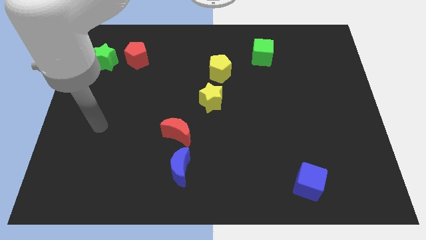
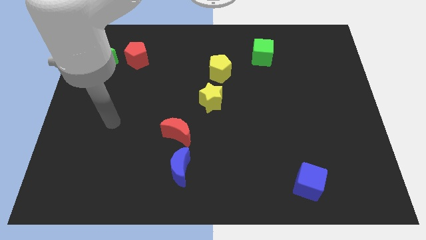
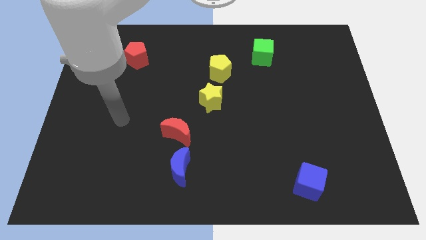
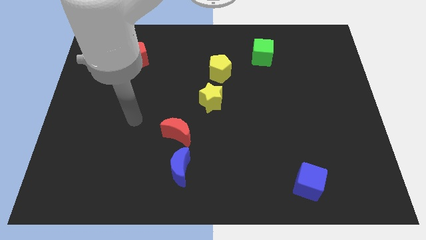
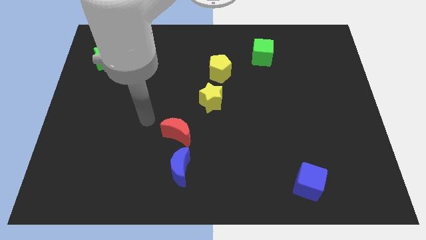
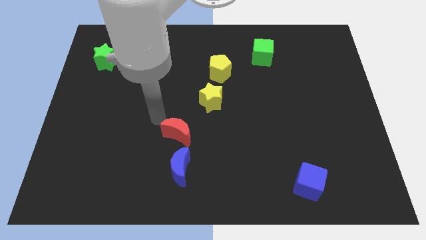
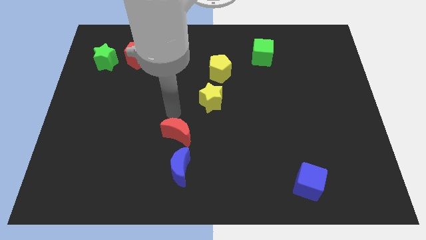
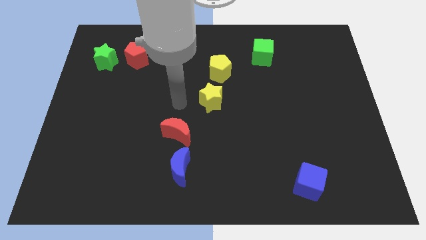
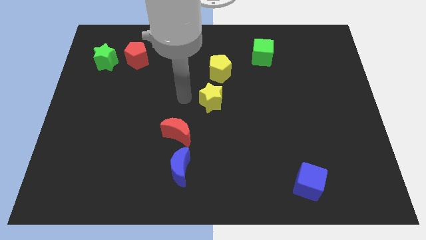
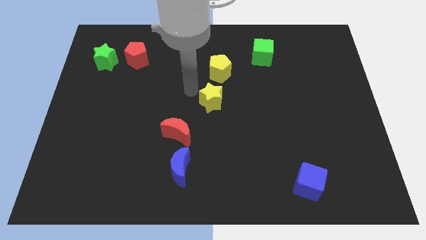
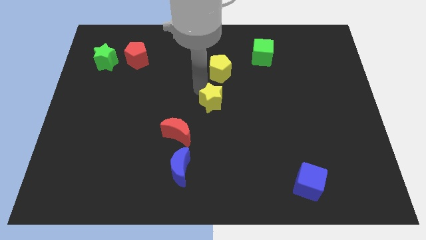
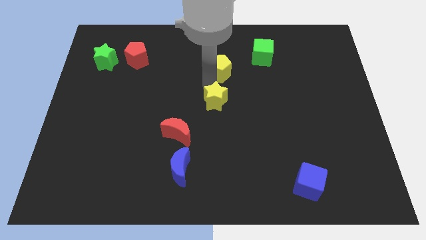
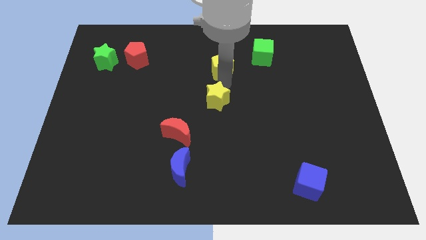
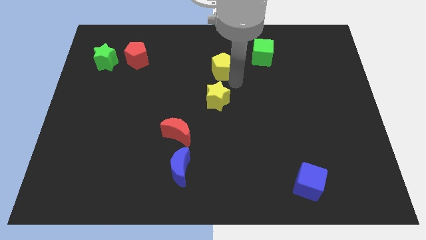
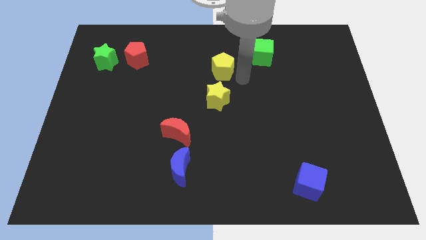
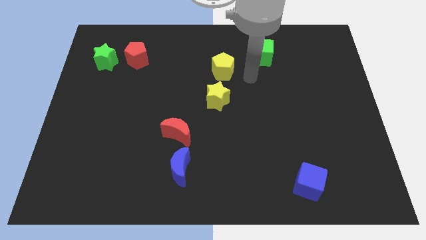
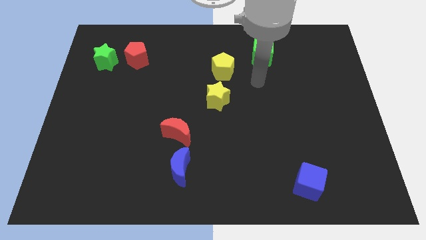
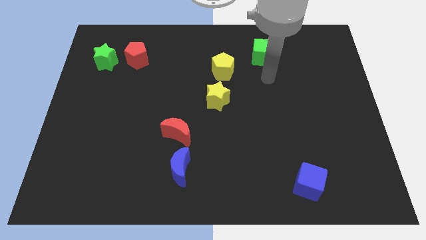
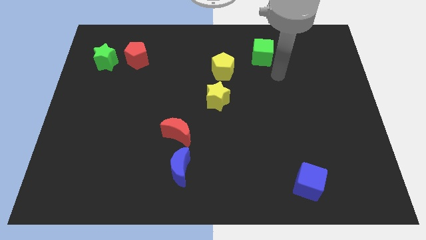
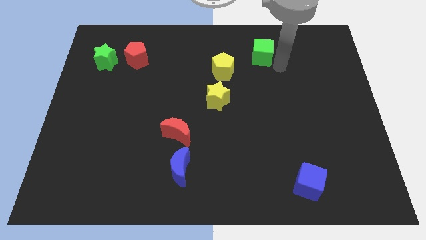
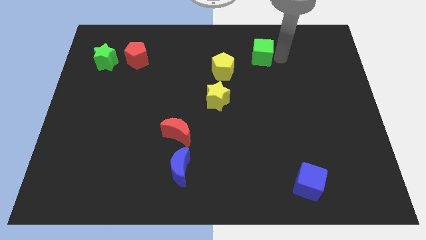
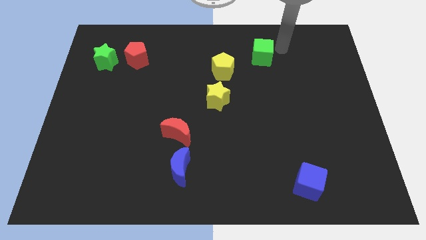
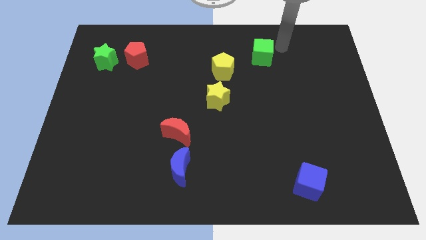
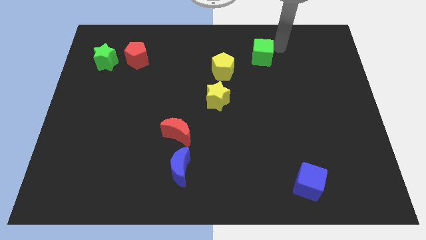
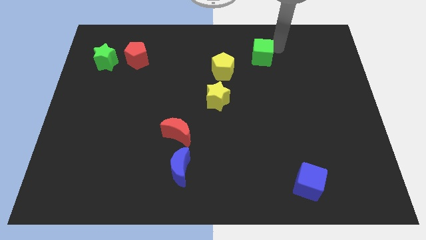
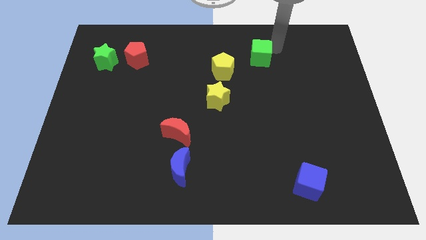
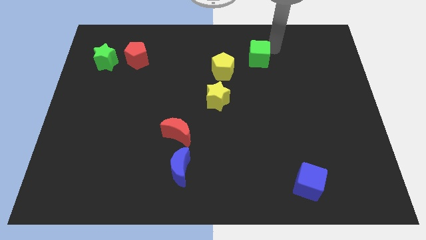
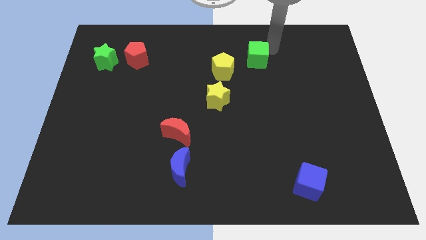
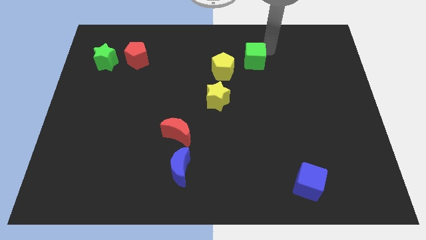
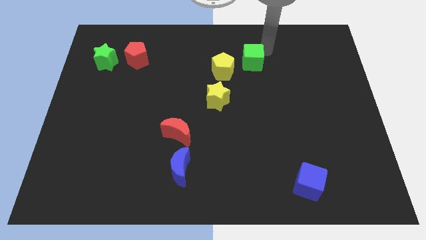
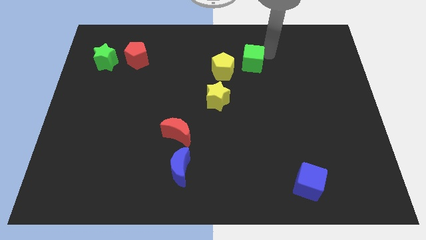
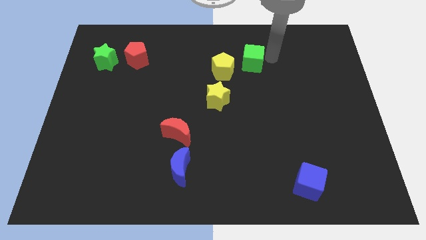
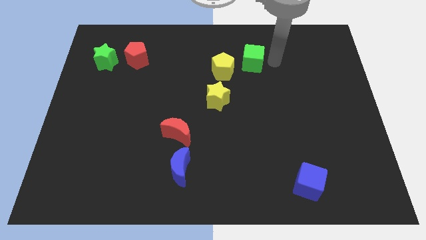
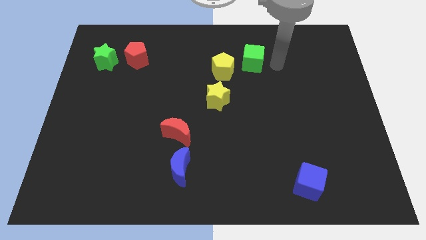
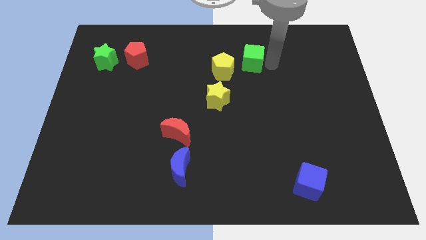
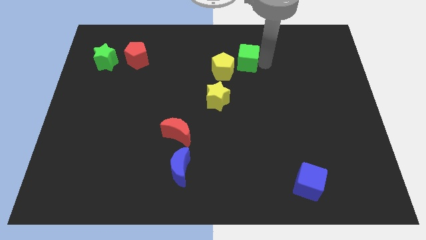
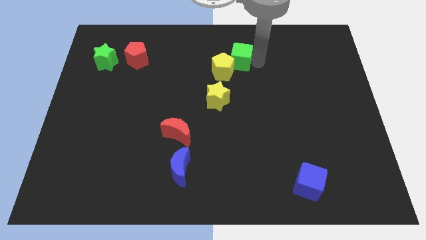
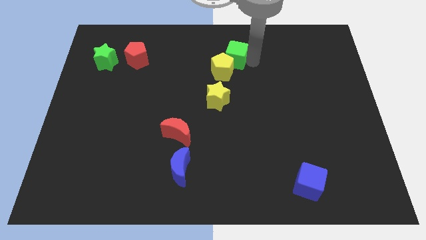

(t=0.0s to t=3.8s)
slightly move the green cube left

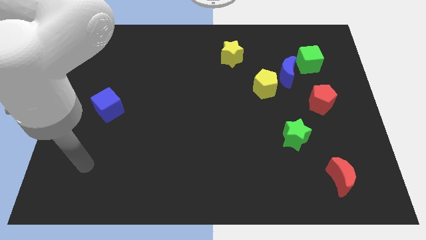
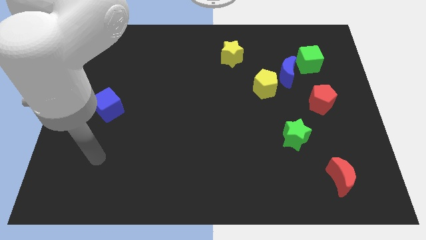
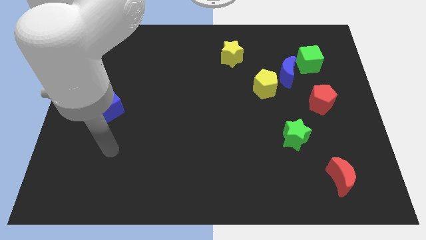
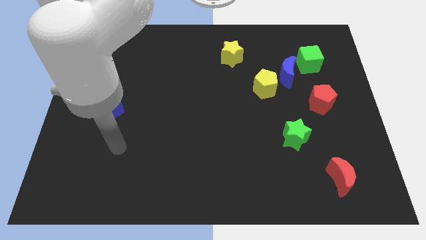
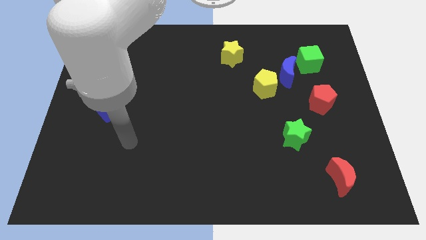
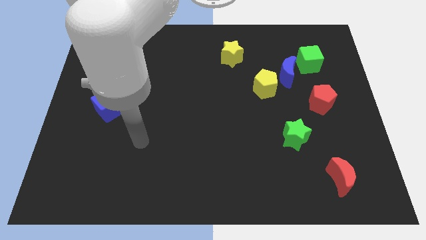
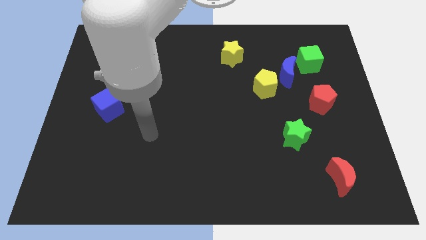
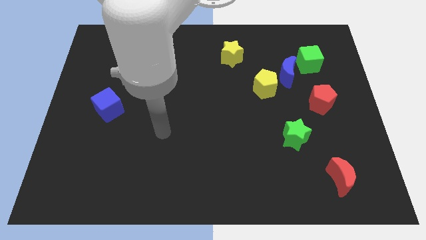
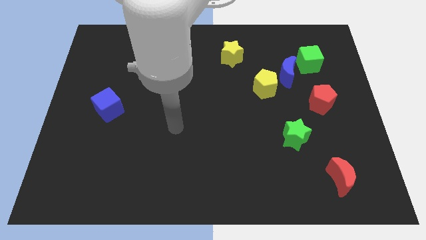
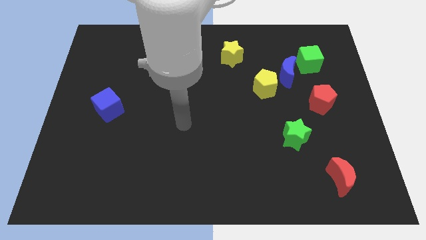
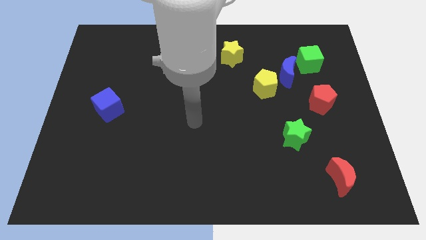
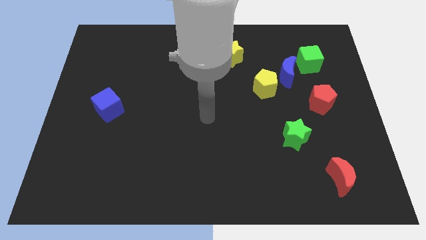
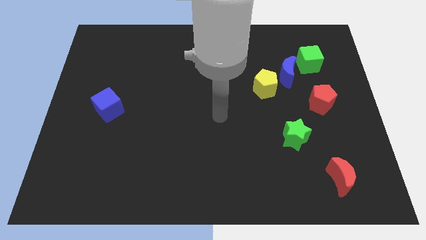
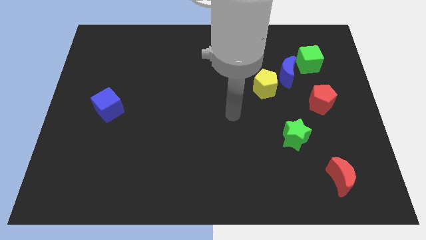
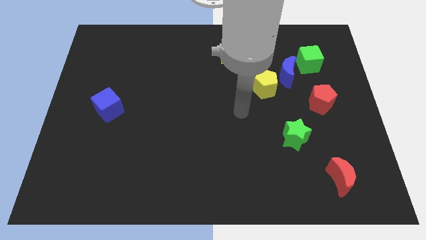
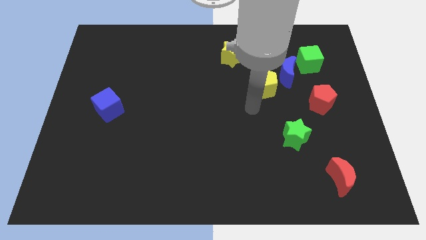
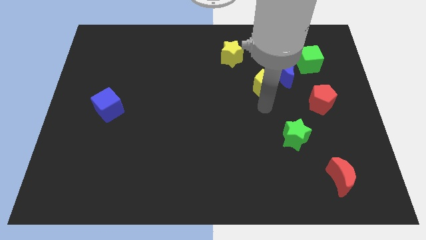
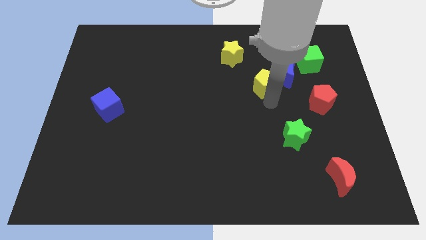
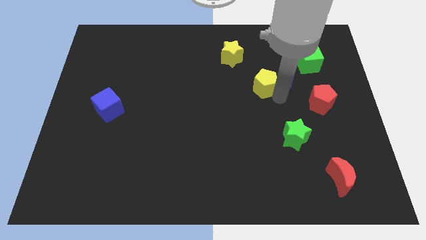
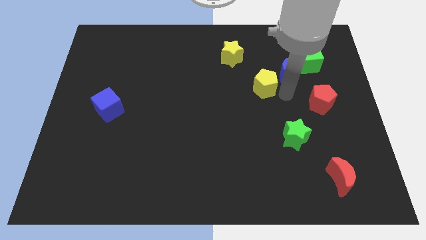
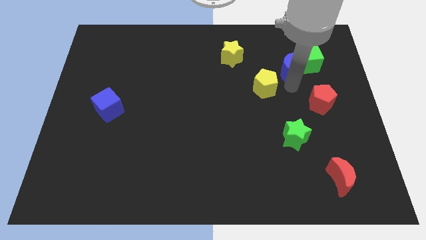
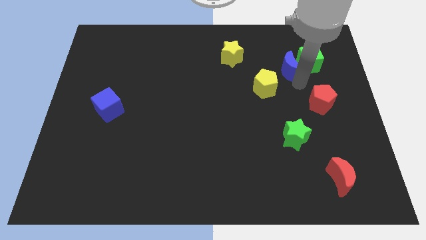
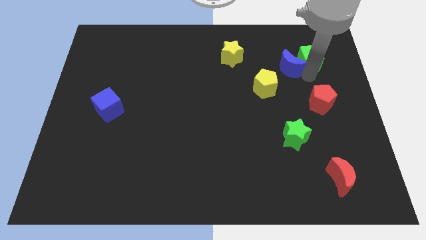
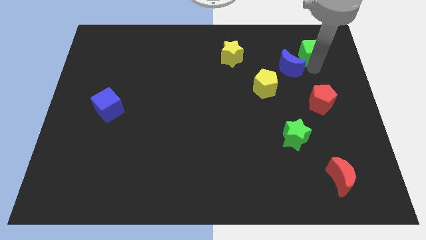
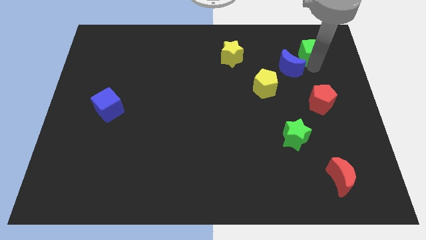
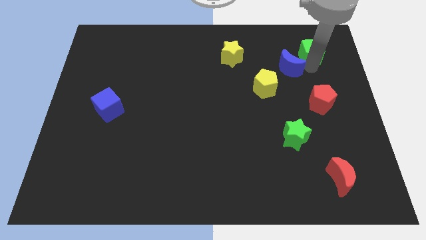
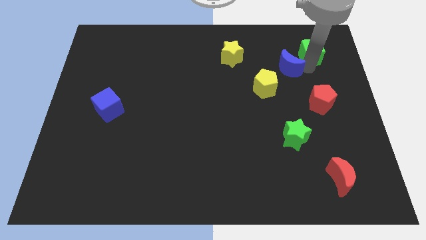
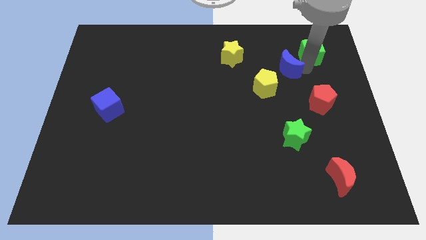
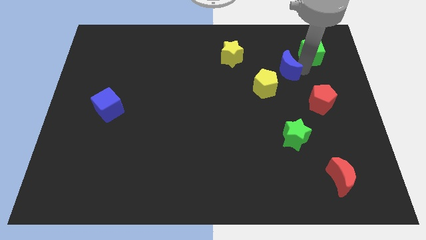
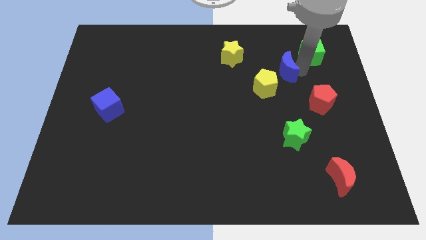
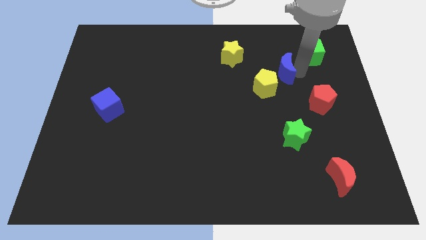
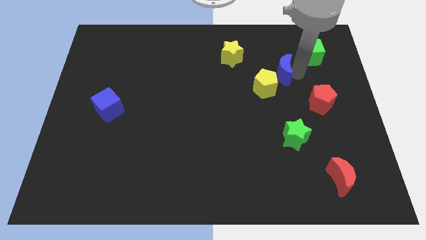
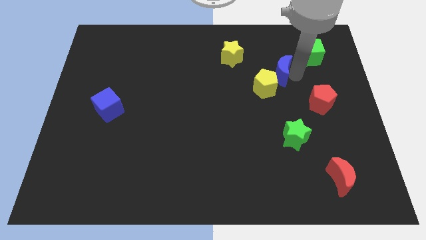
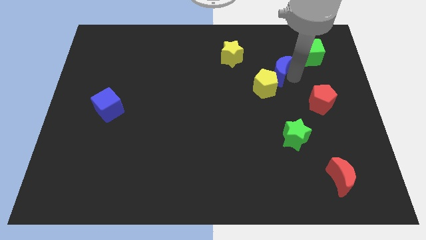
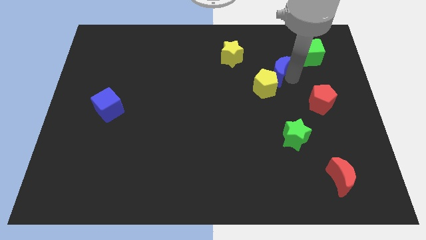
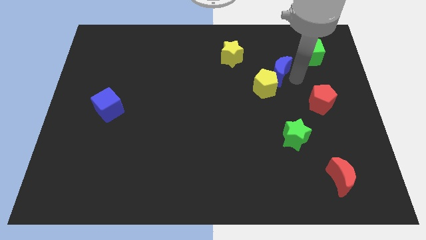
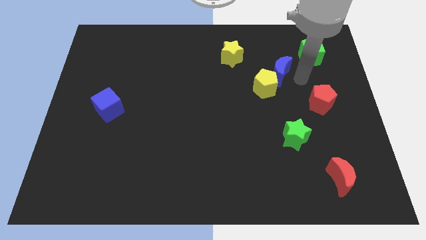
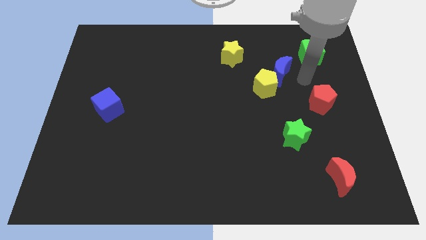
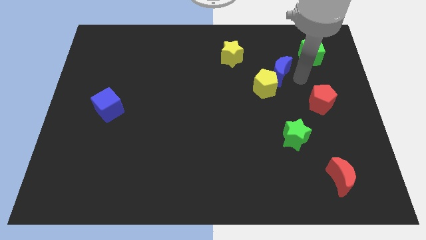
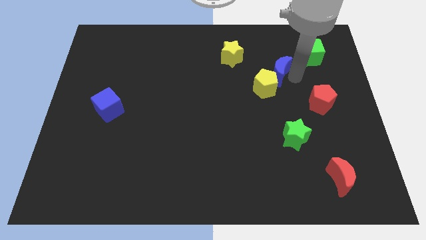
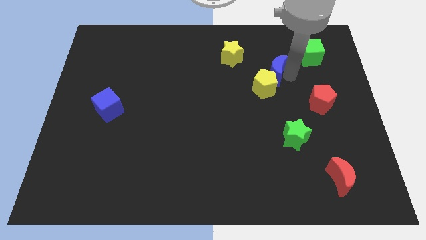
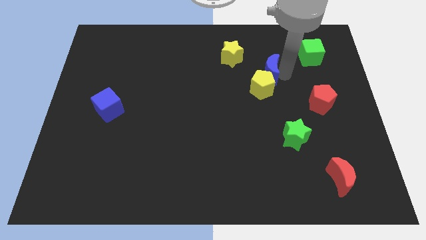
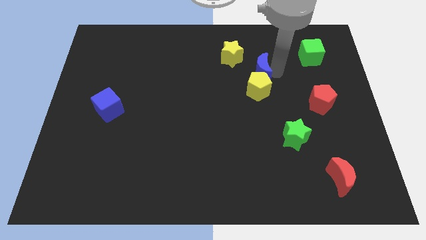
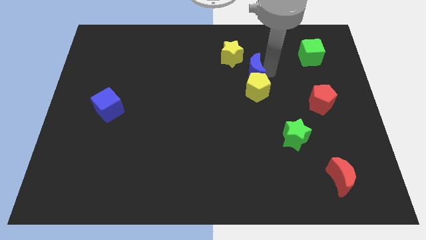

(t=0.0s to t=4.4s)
push the blue moon left slightly
